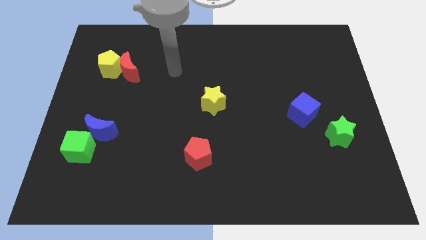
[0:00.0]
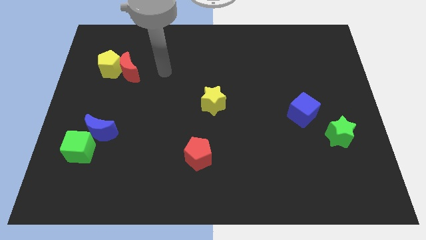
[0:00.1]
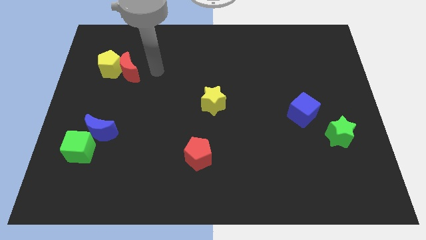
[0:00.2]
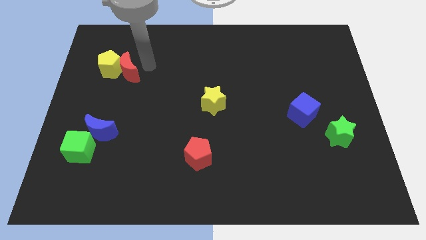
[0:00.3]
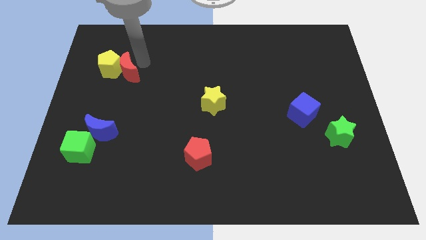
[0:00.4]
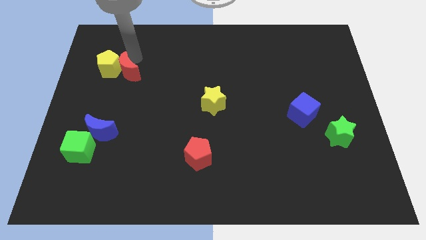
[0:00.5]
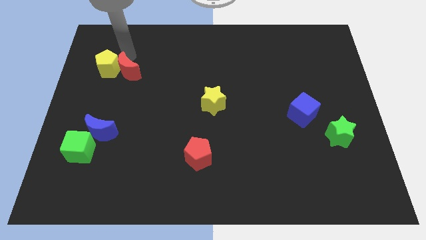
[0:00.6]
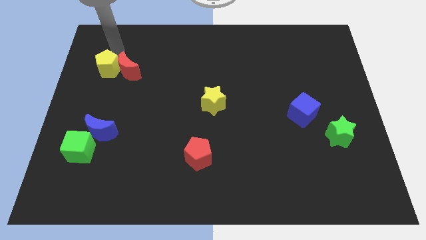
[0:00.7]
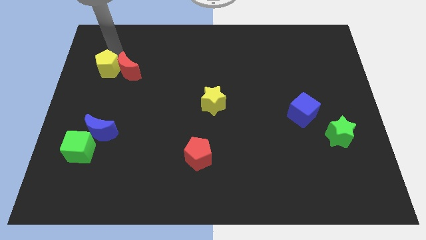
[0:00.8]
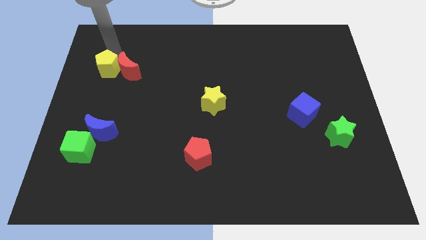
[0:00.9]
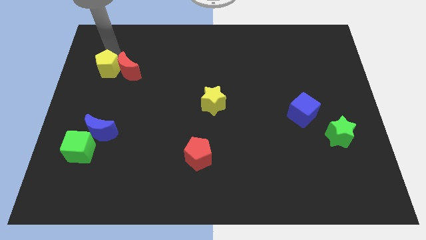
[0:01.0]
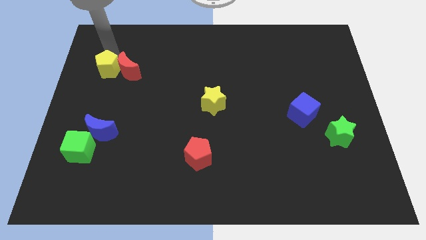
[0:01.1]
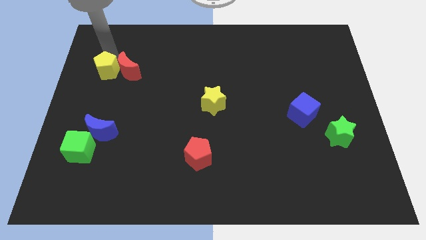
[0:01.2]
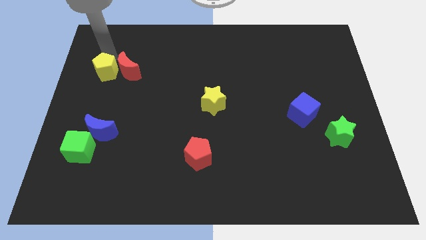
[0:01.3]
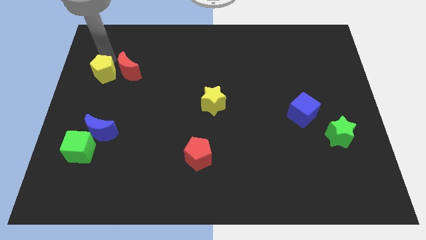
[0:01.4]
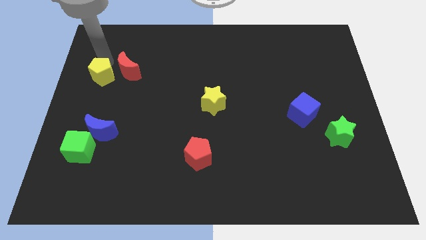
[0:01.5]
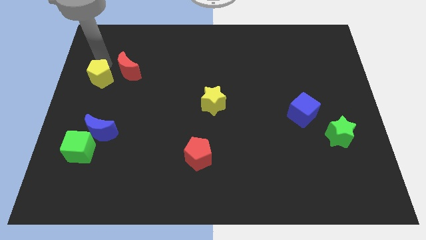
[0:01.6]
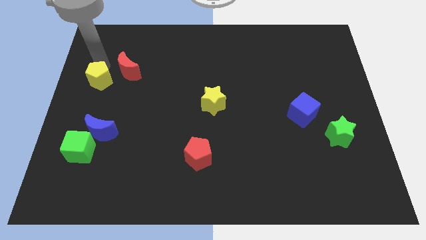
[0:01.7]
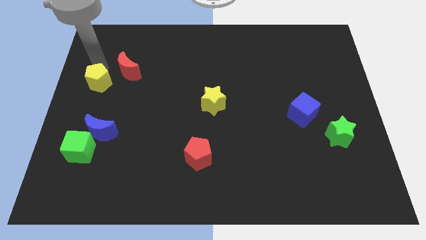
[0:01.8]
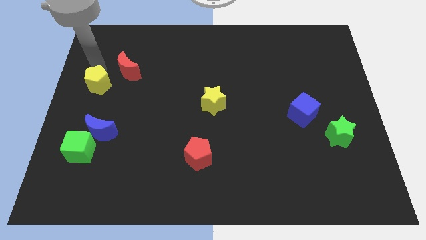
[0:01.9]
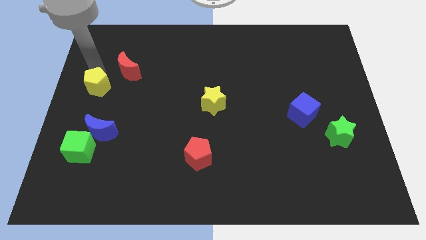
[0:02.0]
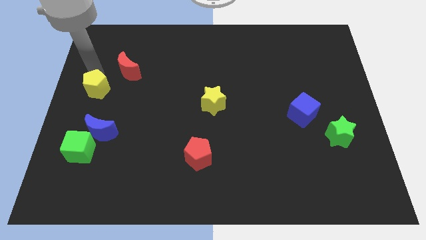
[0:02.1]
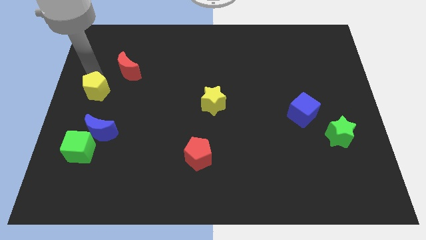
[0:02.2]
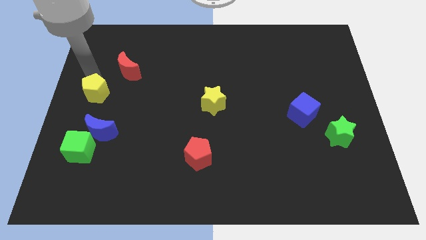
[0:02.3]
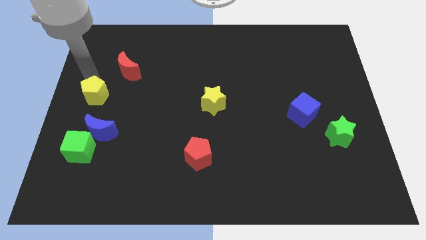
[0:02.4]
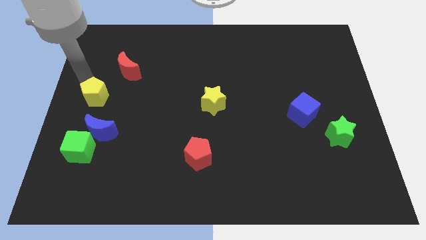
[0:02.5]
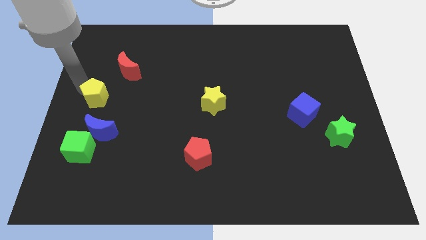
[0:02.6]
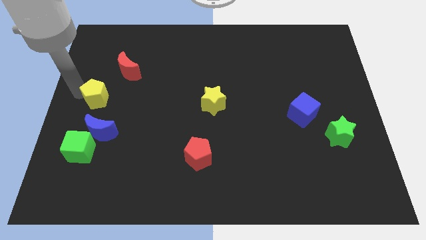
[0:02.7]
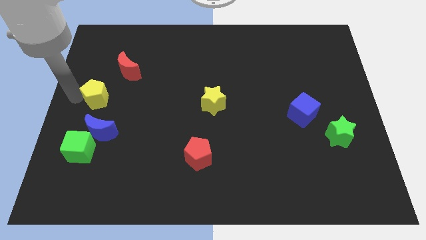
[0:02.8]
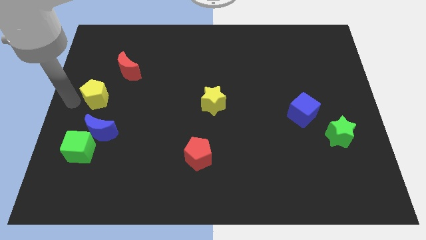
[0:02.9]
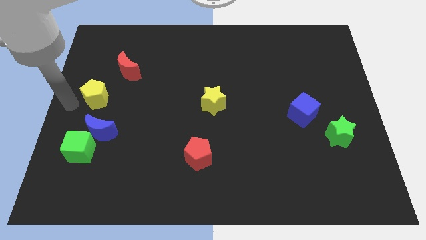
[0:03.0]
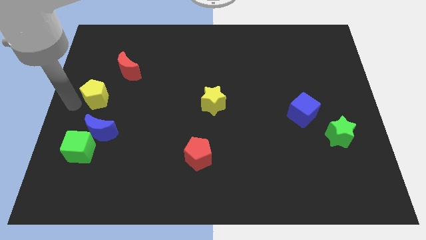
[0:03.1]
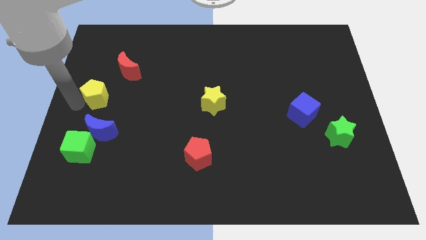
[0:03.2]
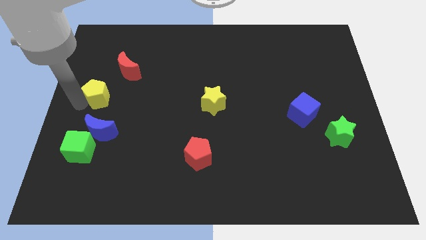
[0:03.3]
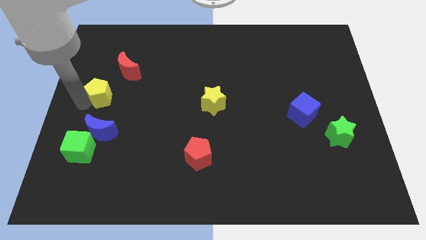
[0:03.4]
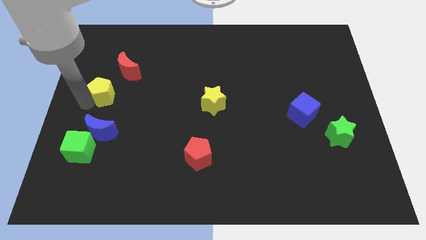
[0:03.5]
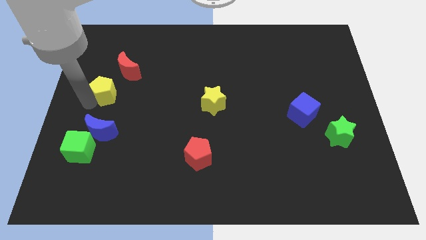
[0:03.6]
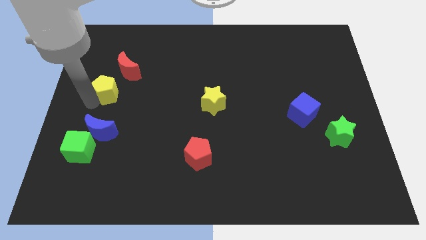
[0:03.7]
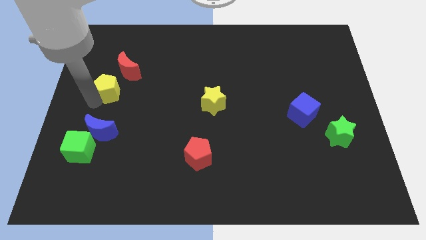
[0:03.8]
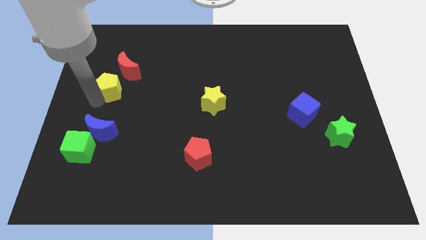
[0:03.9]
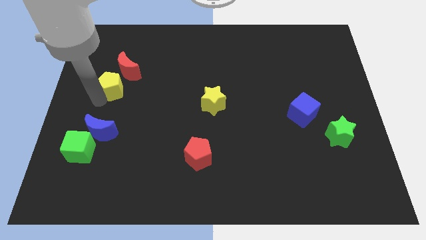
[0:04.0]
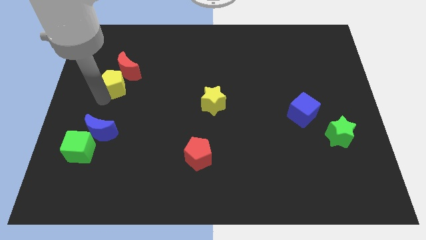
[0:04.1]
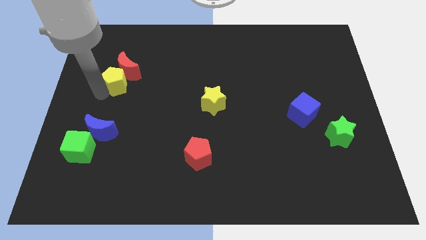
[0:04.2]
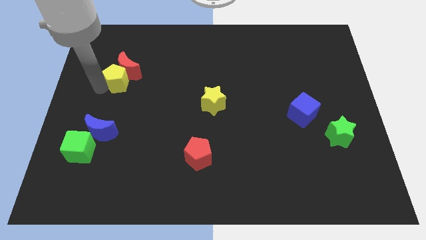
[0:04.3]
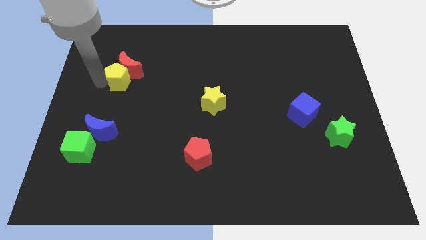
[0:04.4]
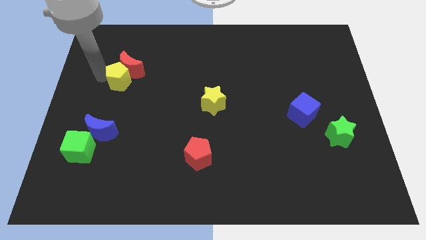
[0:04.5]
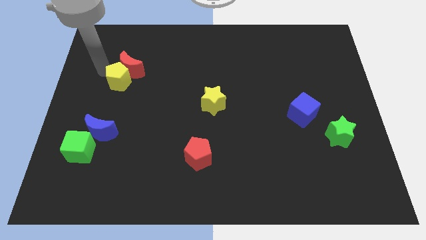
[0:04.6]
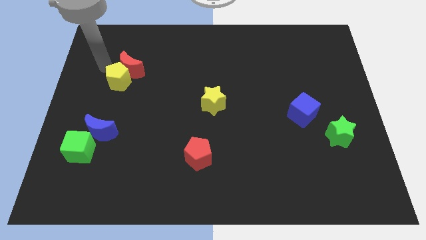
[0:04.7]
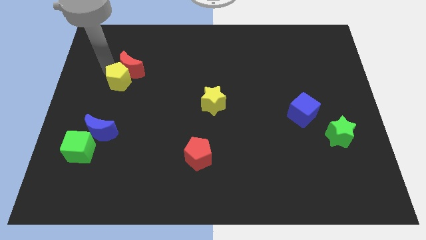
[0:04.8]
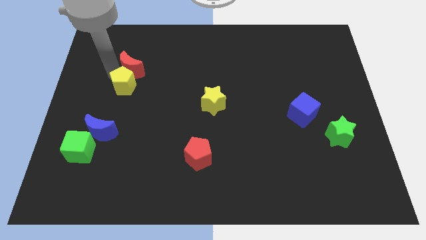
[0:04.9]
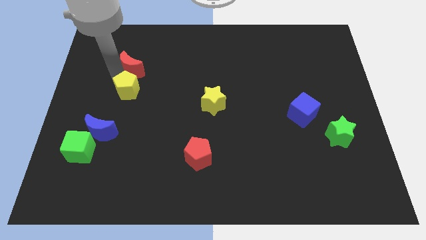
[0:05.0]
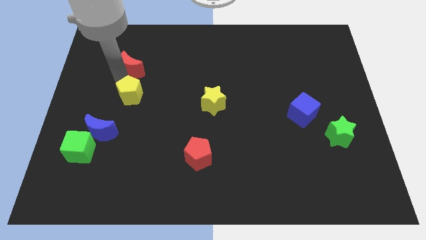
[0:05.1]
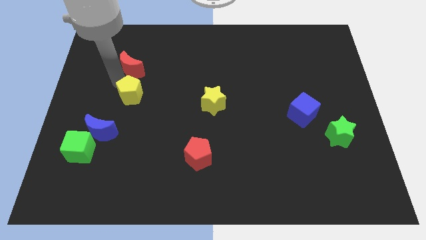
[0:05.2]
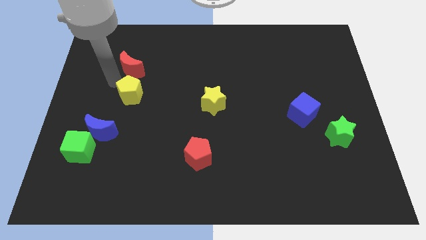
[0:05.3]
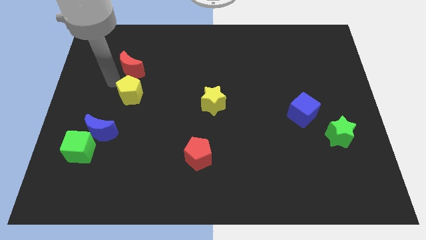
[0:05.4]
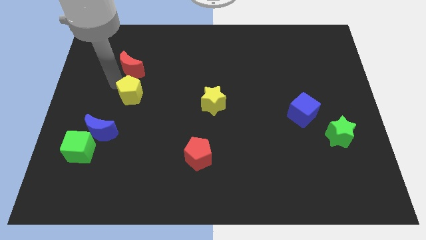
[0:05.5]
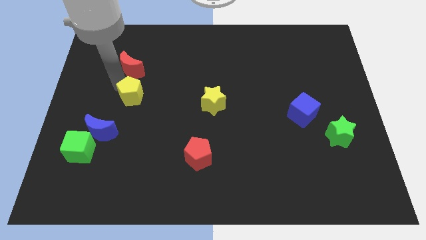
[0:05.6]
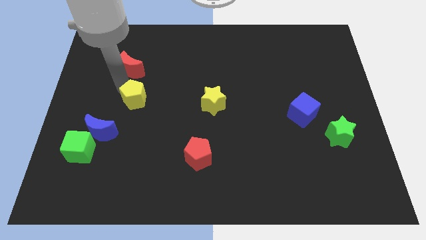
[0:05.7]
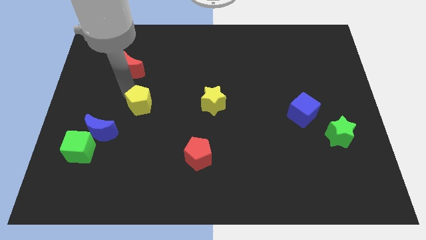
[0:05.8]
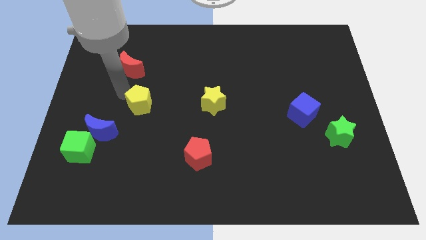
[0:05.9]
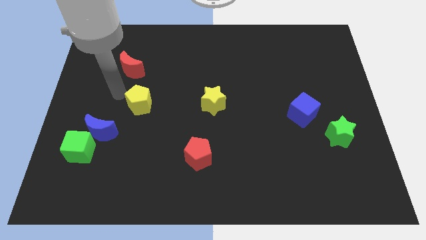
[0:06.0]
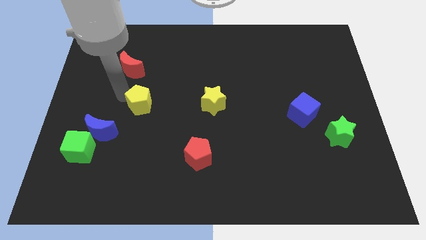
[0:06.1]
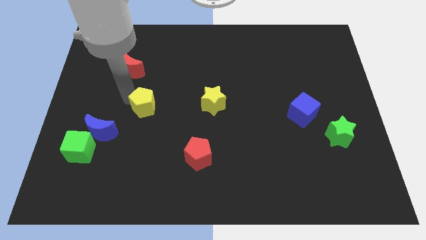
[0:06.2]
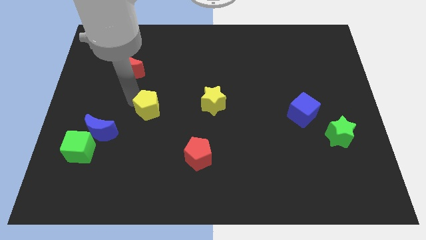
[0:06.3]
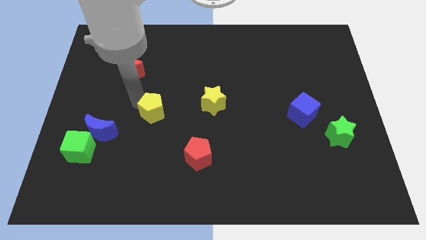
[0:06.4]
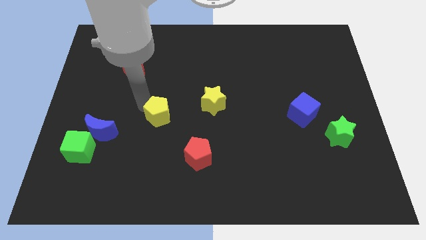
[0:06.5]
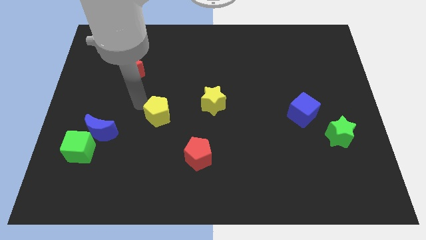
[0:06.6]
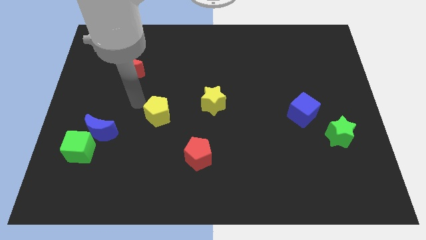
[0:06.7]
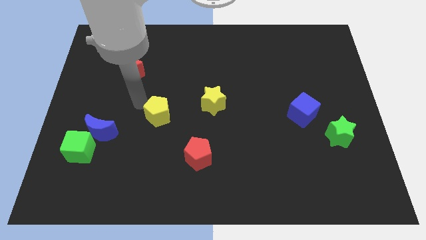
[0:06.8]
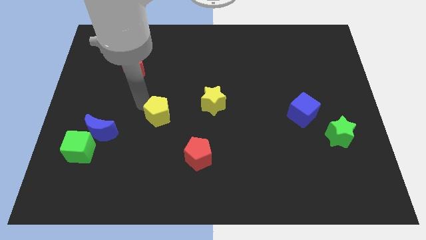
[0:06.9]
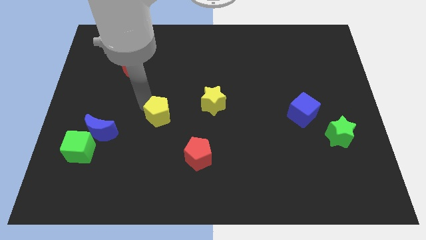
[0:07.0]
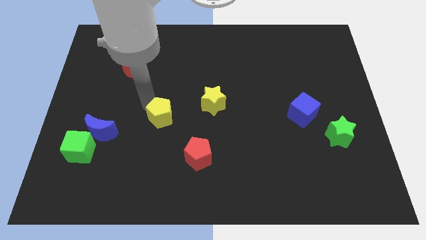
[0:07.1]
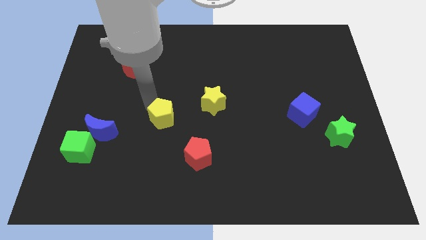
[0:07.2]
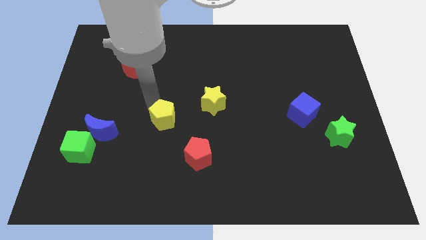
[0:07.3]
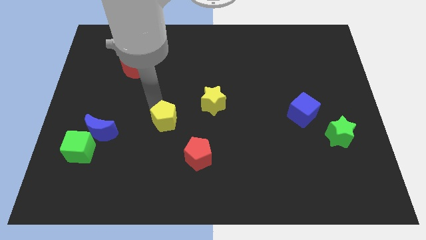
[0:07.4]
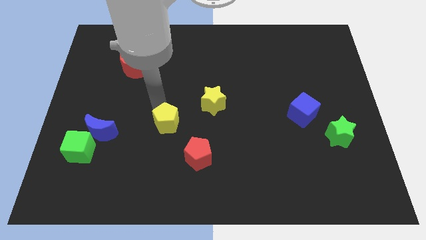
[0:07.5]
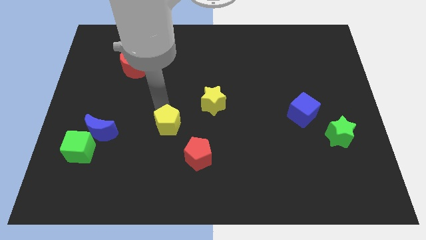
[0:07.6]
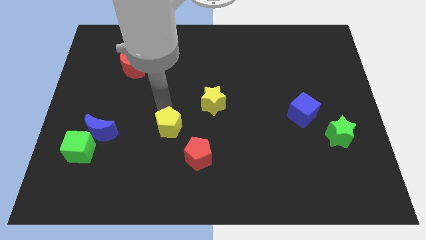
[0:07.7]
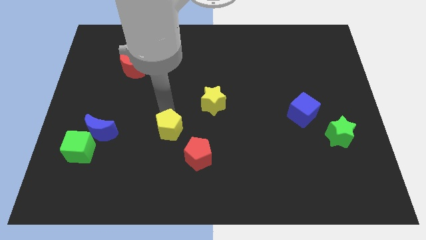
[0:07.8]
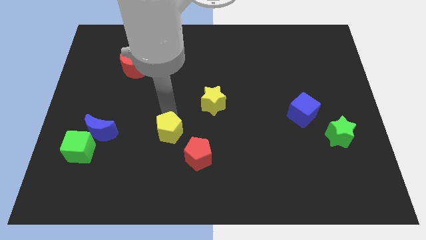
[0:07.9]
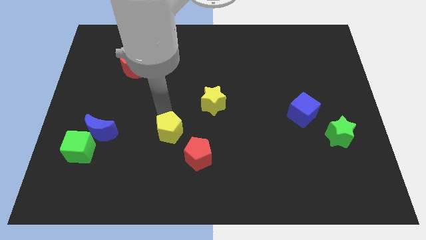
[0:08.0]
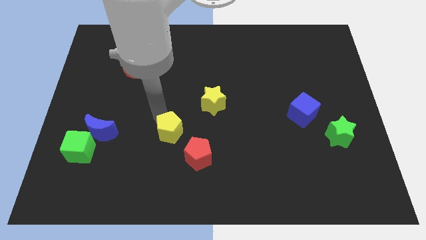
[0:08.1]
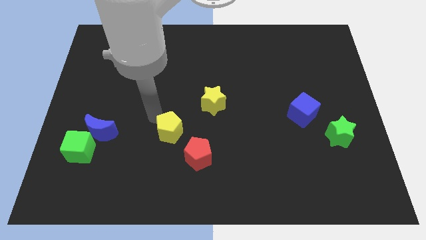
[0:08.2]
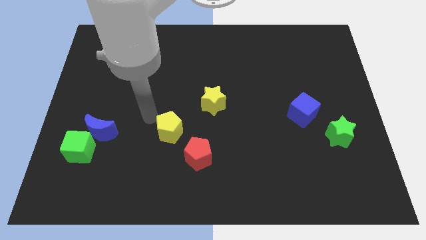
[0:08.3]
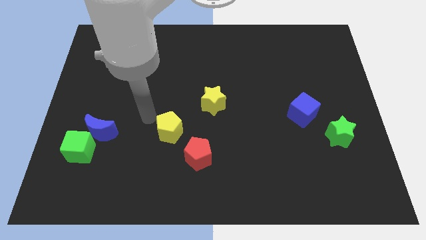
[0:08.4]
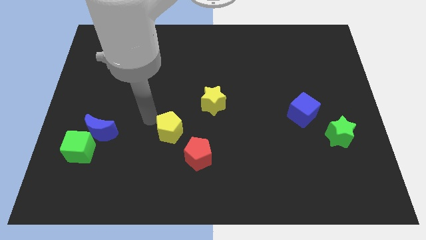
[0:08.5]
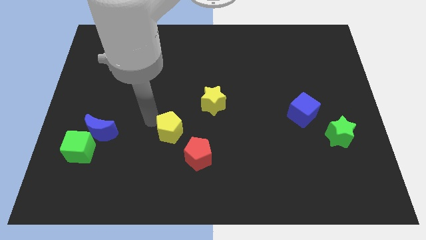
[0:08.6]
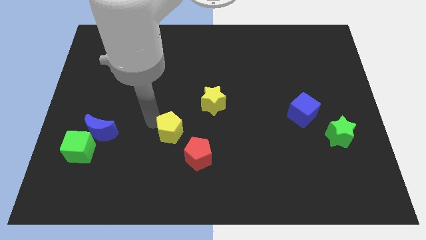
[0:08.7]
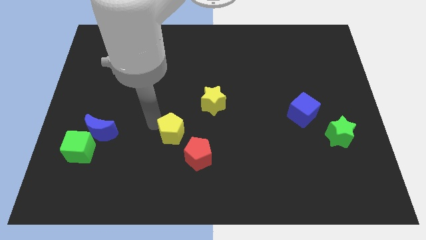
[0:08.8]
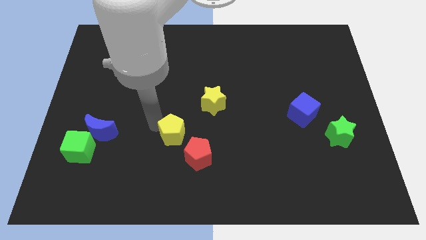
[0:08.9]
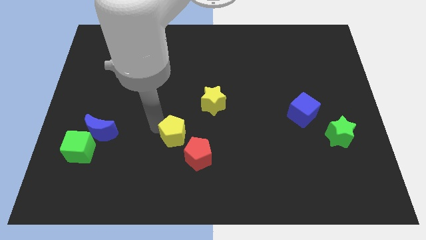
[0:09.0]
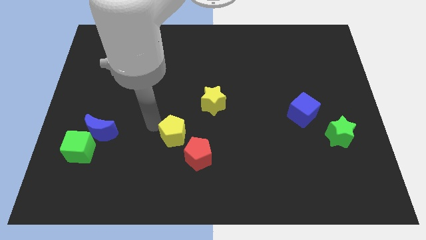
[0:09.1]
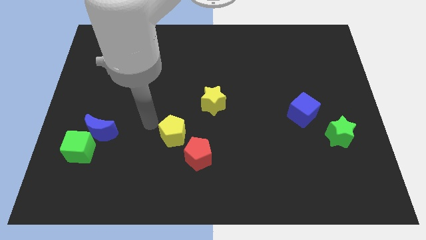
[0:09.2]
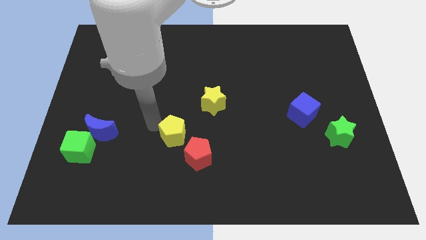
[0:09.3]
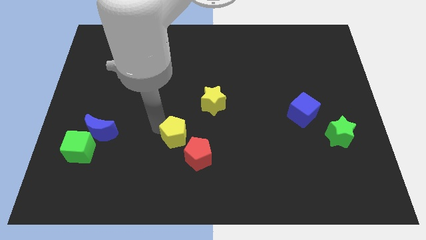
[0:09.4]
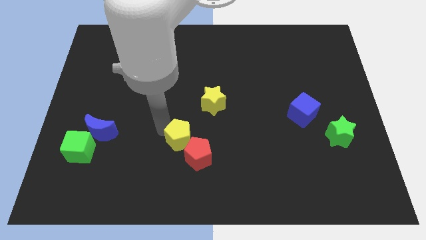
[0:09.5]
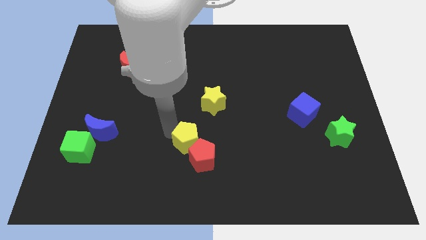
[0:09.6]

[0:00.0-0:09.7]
move the yellow pentagon to the red pentagon
